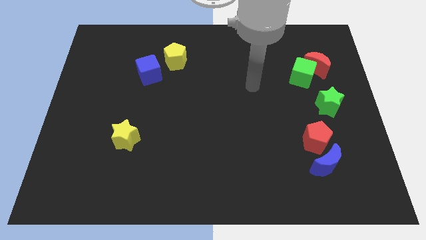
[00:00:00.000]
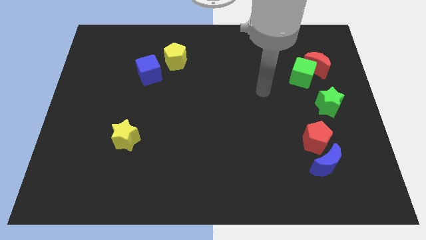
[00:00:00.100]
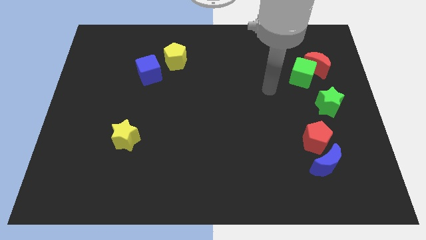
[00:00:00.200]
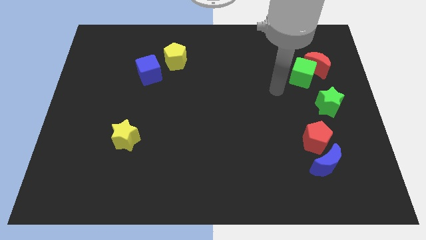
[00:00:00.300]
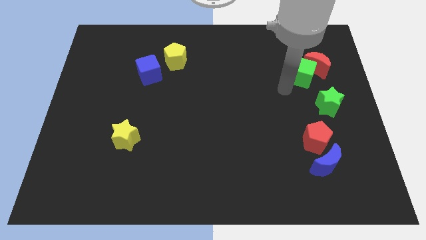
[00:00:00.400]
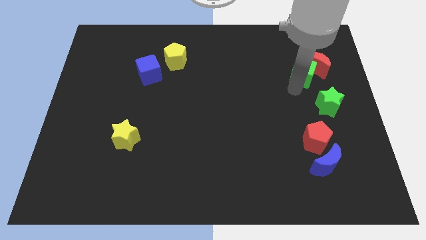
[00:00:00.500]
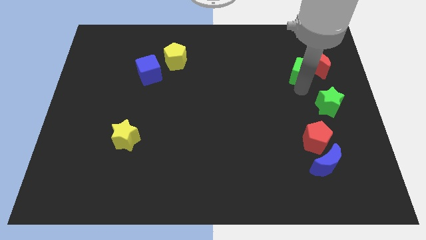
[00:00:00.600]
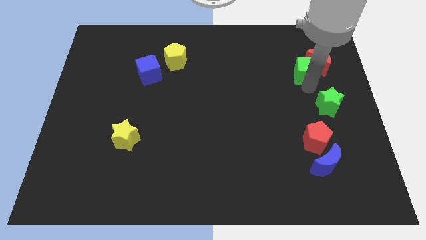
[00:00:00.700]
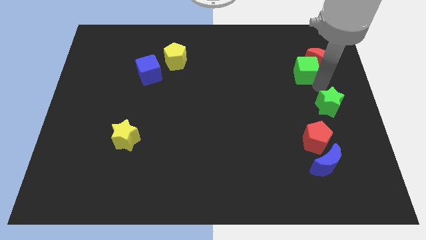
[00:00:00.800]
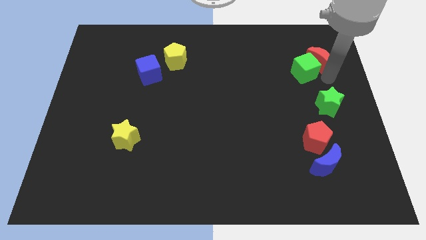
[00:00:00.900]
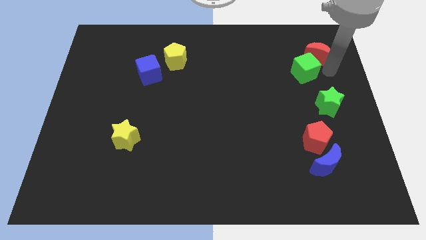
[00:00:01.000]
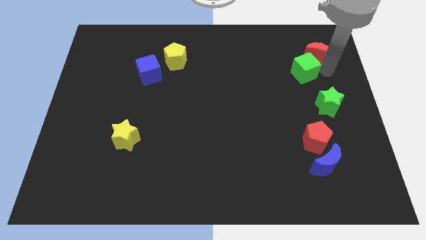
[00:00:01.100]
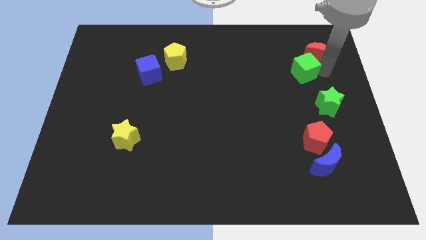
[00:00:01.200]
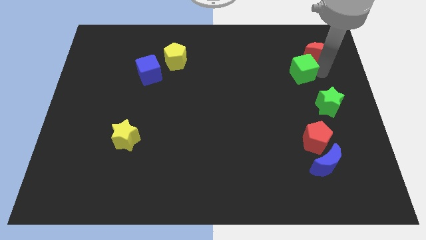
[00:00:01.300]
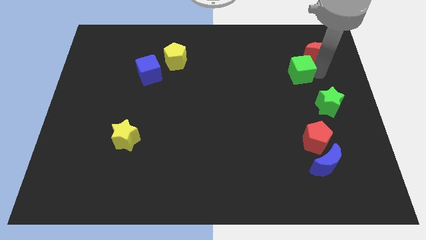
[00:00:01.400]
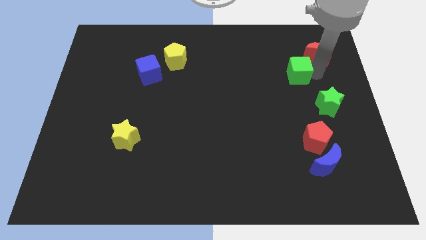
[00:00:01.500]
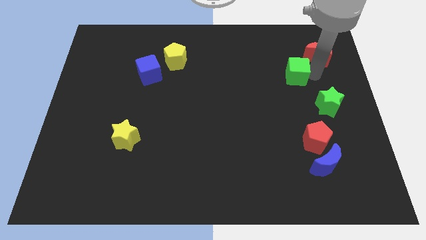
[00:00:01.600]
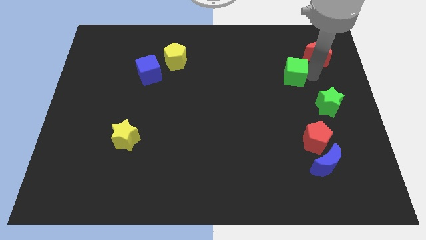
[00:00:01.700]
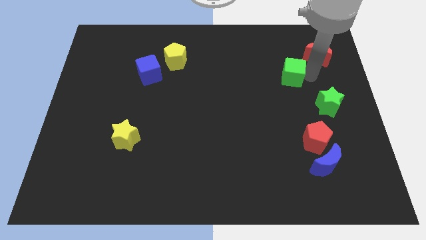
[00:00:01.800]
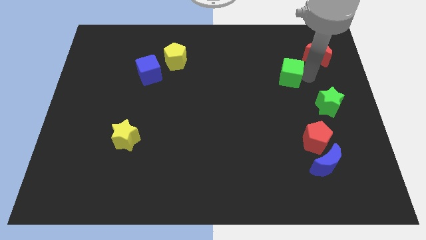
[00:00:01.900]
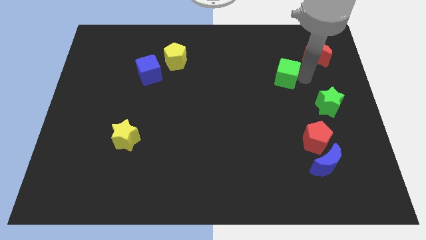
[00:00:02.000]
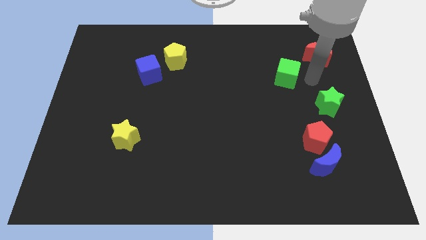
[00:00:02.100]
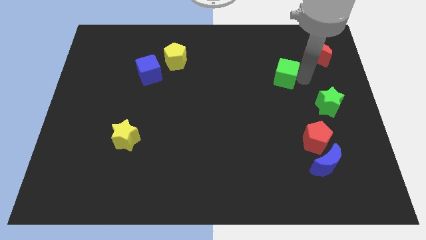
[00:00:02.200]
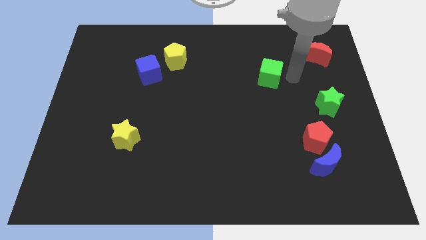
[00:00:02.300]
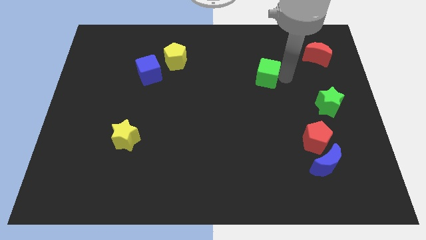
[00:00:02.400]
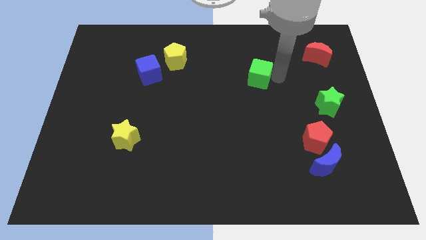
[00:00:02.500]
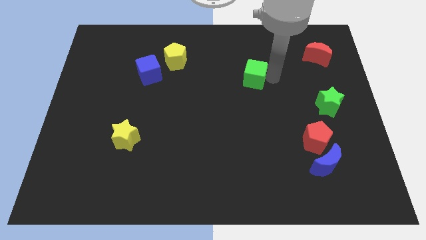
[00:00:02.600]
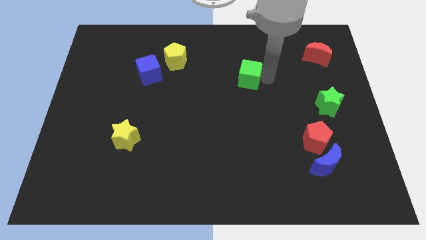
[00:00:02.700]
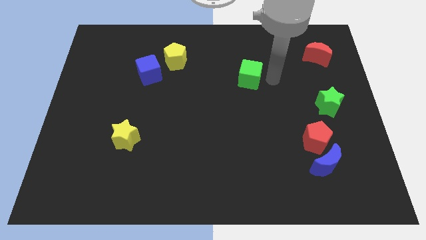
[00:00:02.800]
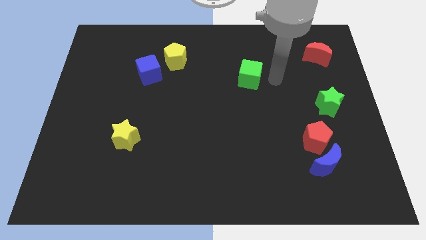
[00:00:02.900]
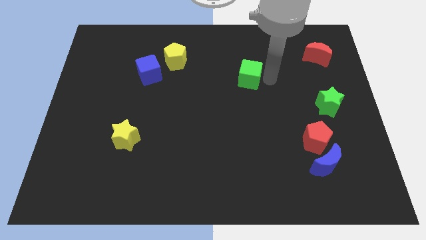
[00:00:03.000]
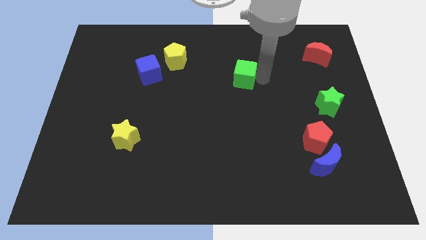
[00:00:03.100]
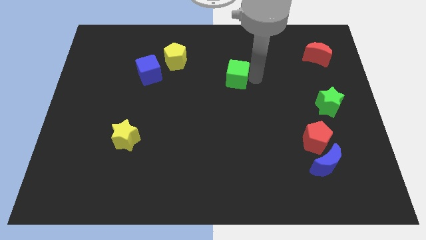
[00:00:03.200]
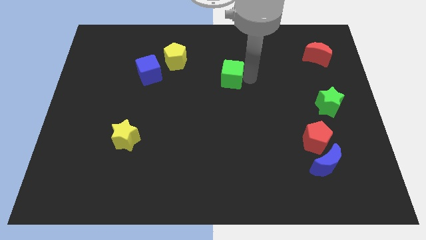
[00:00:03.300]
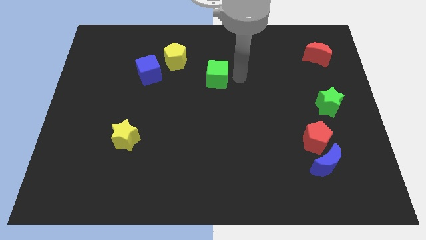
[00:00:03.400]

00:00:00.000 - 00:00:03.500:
move the green cube left

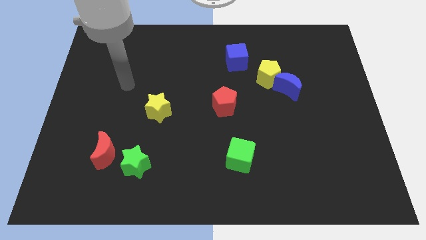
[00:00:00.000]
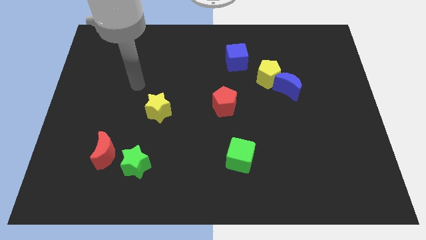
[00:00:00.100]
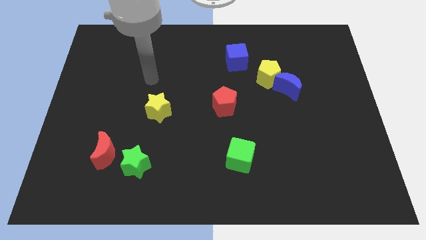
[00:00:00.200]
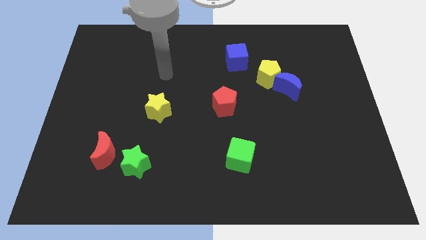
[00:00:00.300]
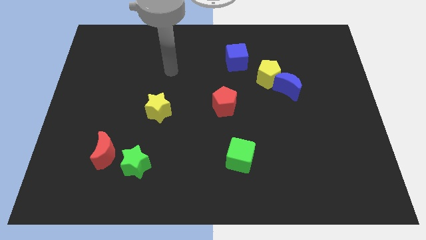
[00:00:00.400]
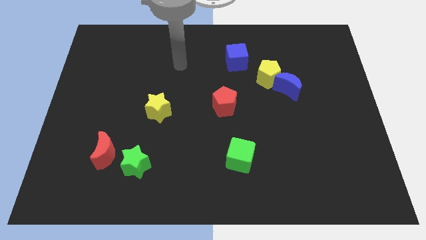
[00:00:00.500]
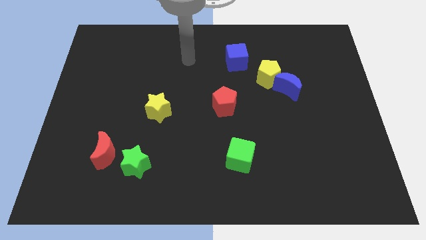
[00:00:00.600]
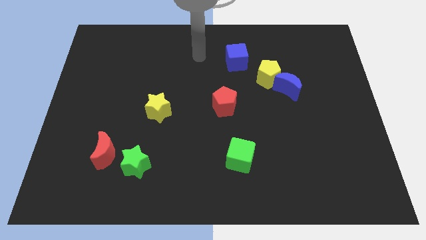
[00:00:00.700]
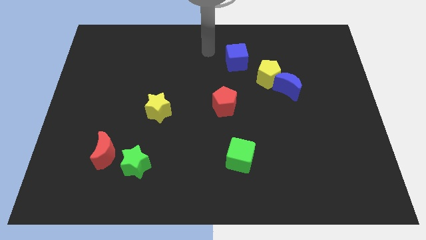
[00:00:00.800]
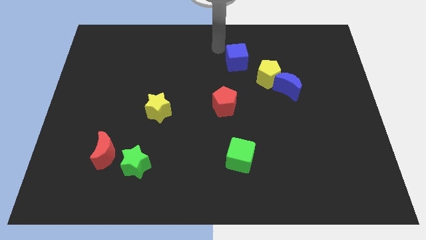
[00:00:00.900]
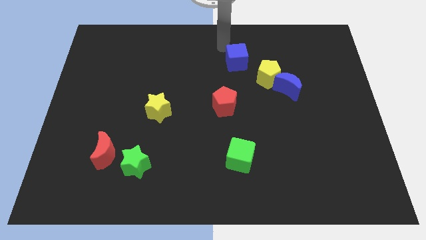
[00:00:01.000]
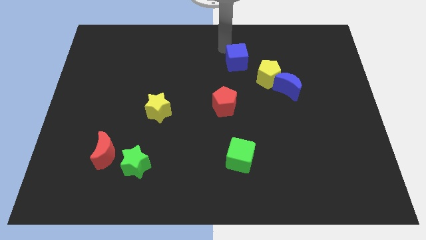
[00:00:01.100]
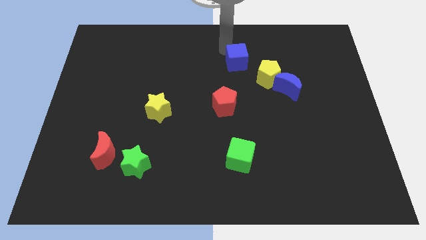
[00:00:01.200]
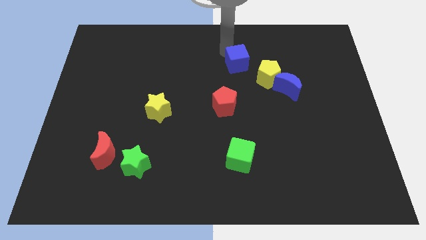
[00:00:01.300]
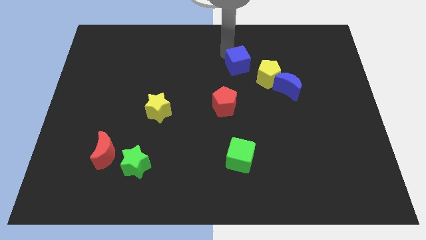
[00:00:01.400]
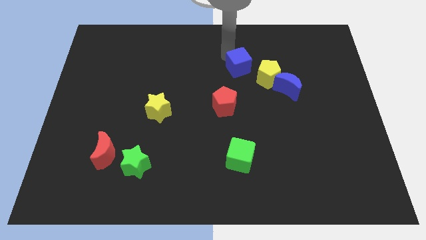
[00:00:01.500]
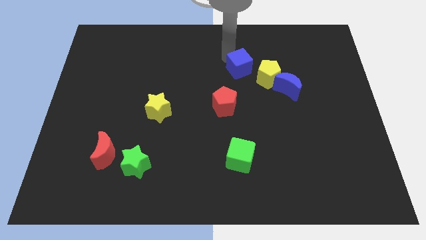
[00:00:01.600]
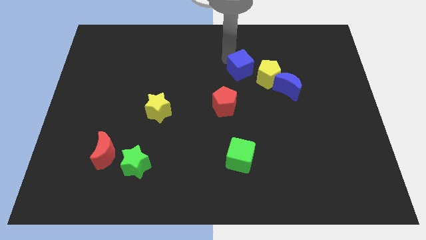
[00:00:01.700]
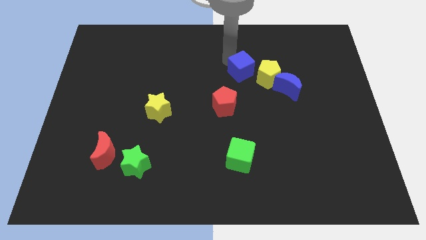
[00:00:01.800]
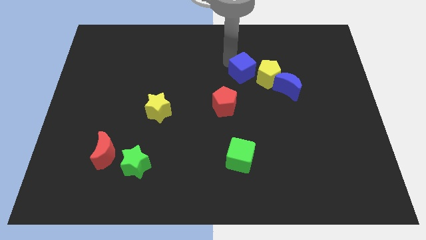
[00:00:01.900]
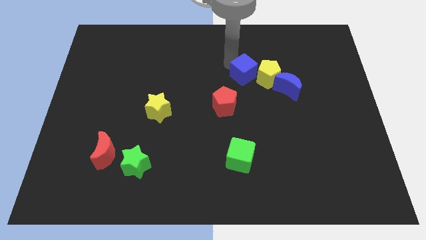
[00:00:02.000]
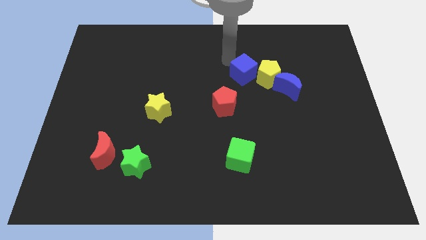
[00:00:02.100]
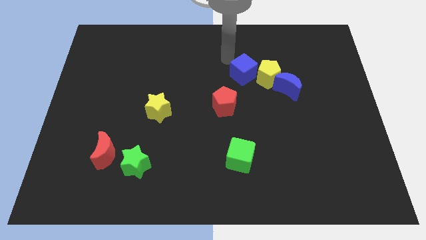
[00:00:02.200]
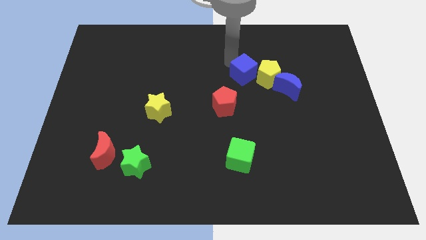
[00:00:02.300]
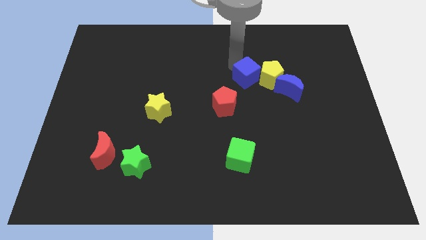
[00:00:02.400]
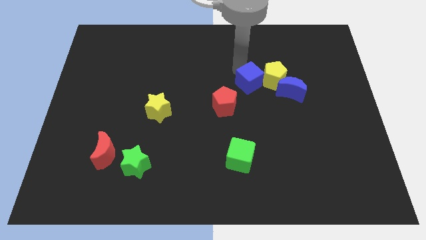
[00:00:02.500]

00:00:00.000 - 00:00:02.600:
slightly move the blue cube down and right

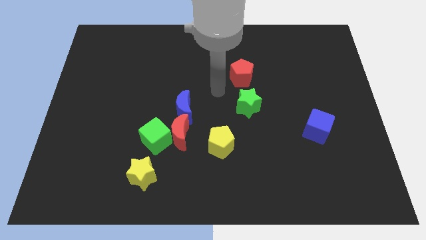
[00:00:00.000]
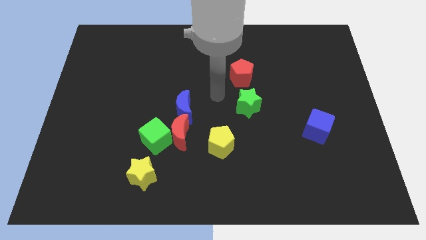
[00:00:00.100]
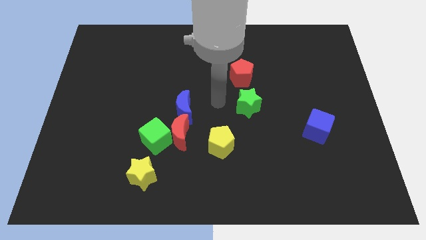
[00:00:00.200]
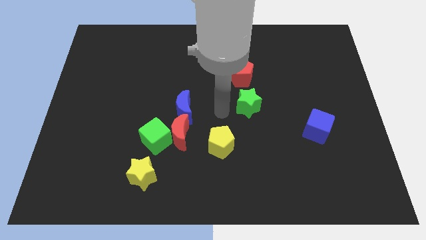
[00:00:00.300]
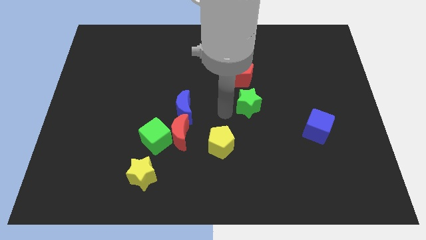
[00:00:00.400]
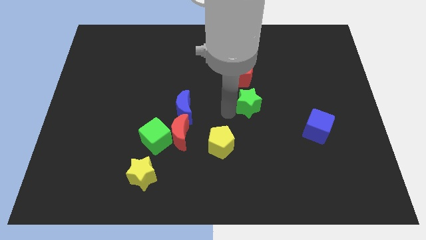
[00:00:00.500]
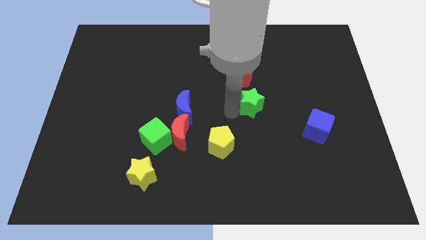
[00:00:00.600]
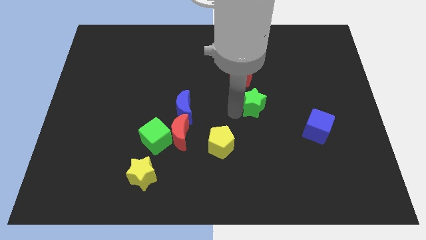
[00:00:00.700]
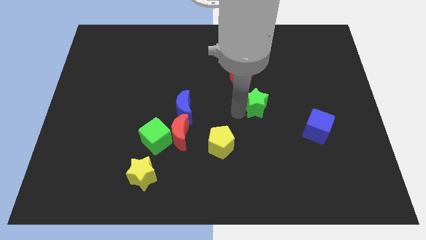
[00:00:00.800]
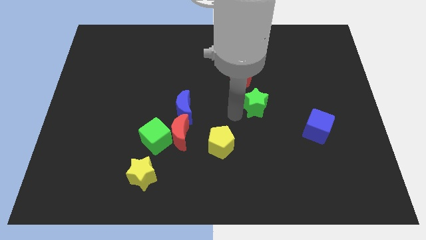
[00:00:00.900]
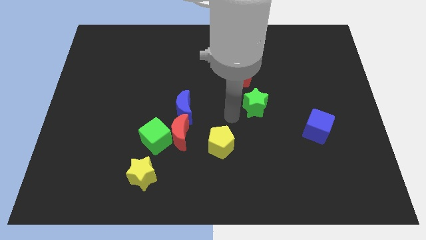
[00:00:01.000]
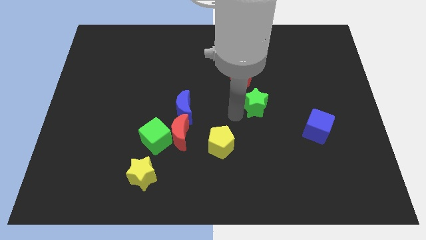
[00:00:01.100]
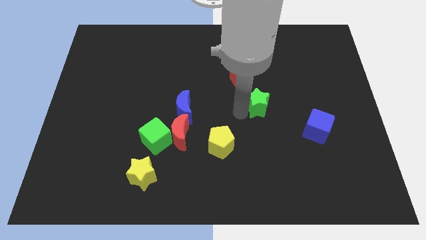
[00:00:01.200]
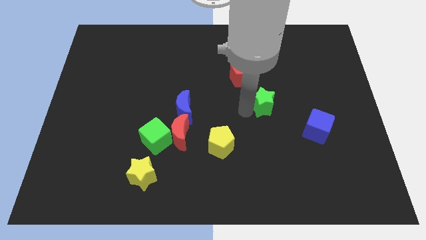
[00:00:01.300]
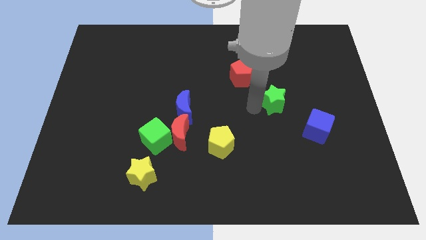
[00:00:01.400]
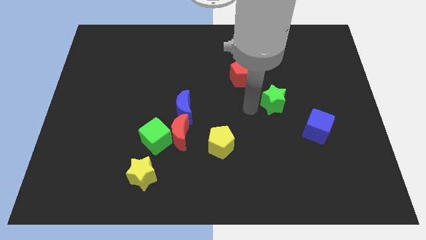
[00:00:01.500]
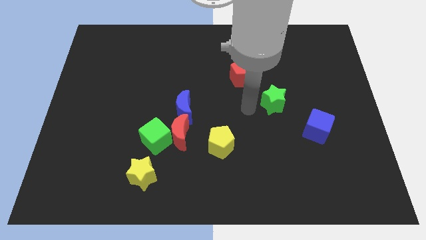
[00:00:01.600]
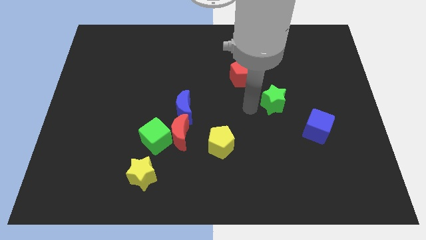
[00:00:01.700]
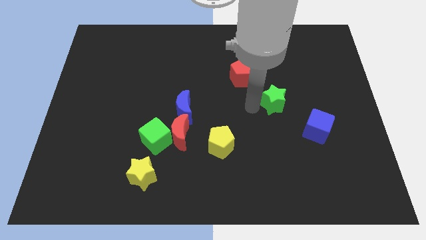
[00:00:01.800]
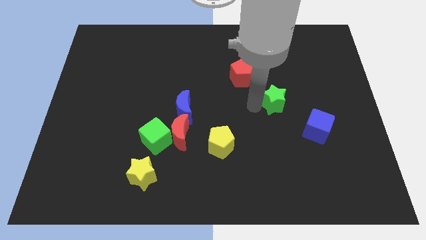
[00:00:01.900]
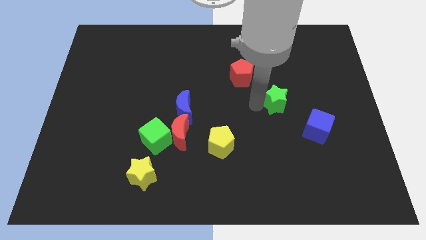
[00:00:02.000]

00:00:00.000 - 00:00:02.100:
slightly slide the green star to the right
